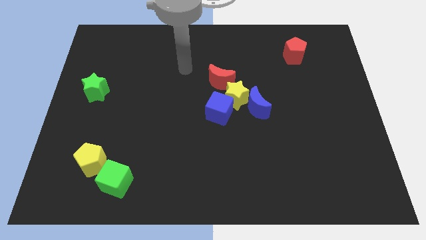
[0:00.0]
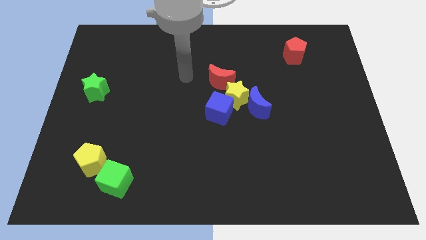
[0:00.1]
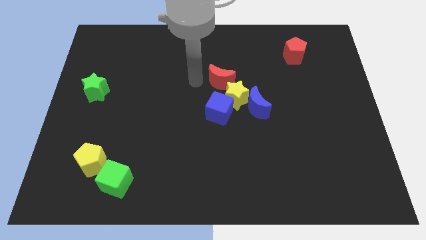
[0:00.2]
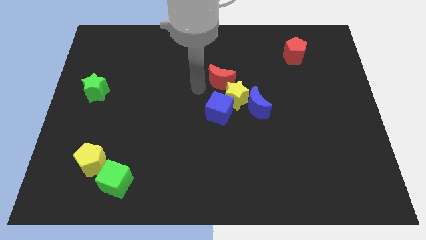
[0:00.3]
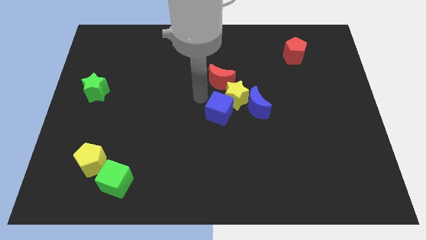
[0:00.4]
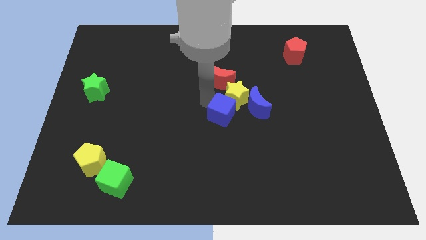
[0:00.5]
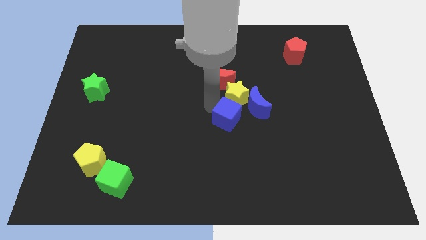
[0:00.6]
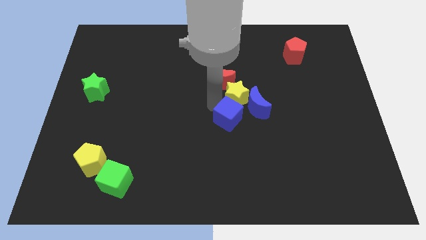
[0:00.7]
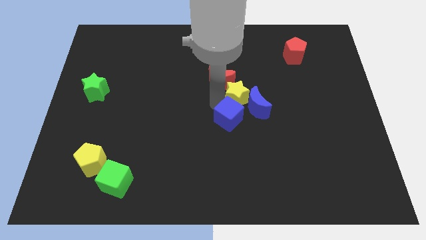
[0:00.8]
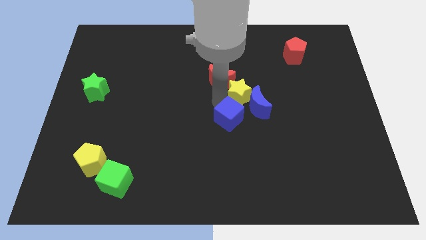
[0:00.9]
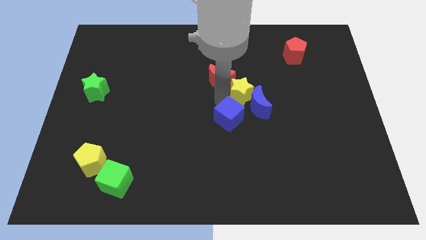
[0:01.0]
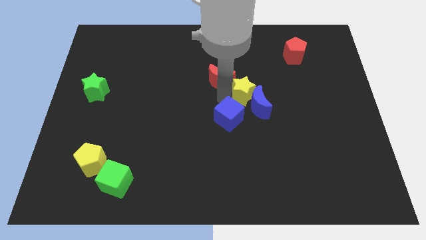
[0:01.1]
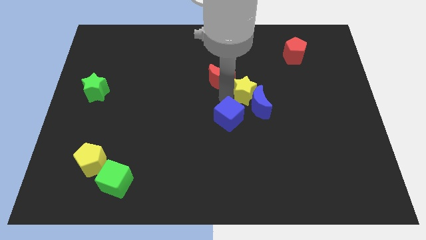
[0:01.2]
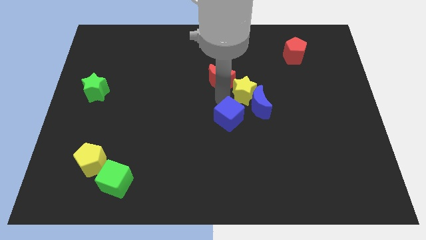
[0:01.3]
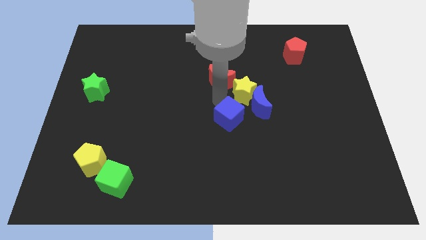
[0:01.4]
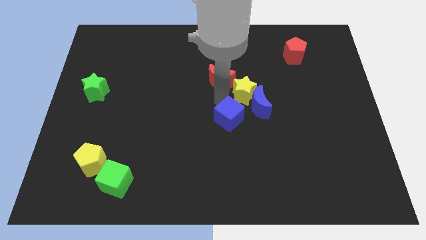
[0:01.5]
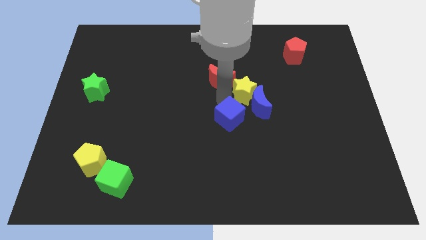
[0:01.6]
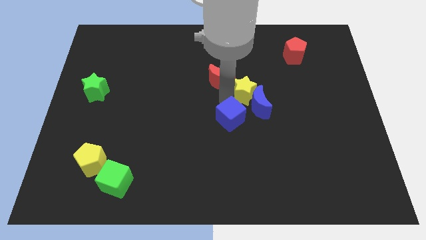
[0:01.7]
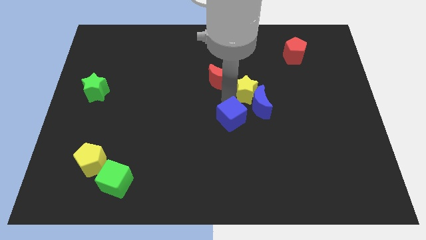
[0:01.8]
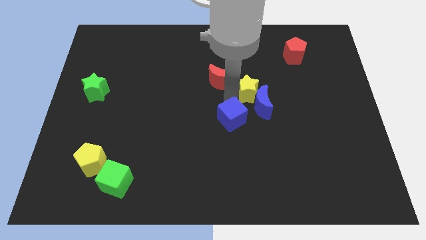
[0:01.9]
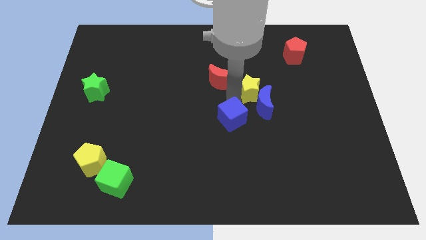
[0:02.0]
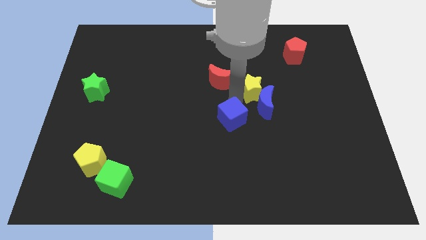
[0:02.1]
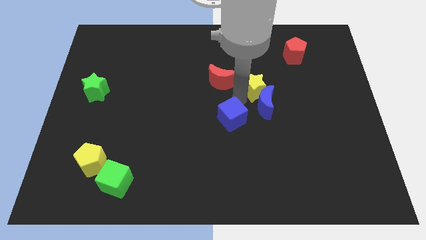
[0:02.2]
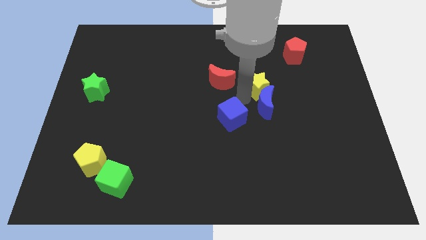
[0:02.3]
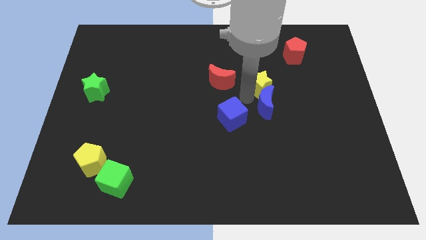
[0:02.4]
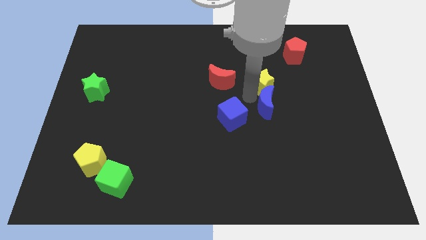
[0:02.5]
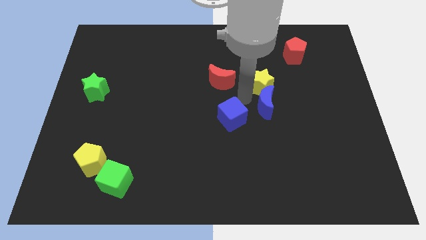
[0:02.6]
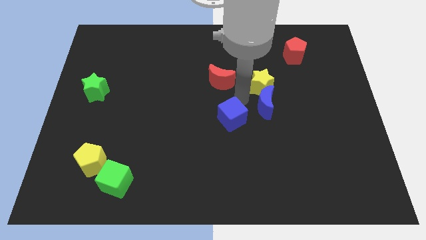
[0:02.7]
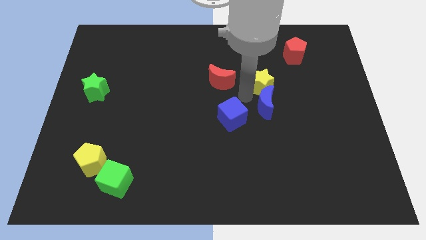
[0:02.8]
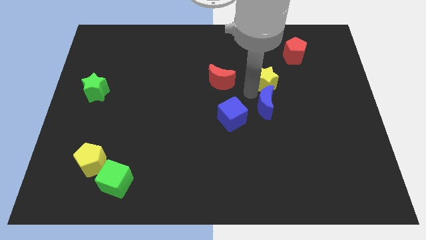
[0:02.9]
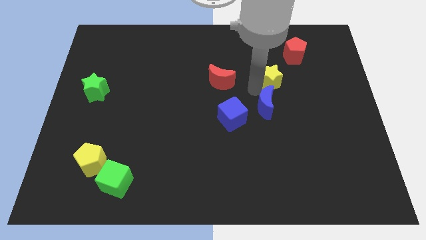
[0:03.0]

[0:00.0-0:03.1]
move the yellow star away from the group of blocks

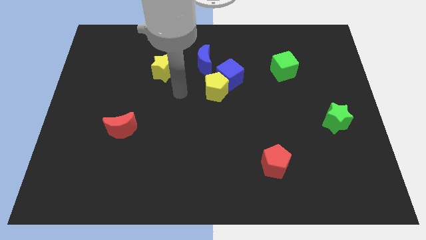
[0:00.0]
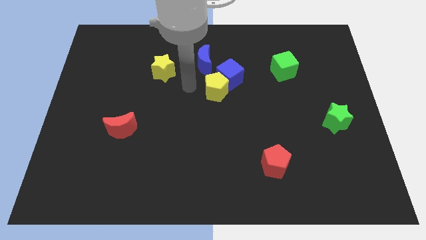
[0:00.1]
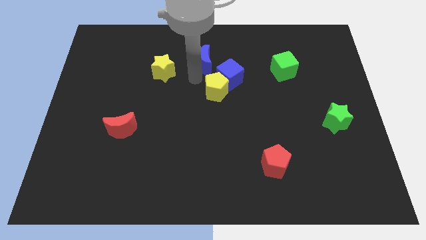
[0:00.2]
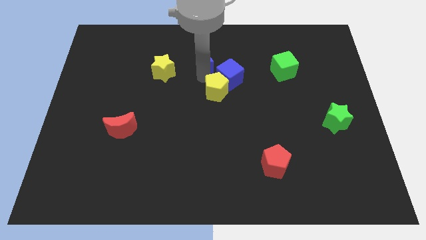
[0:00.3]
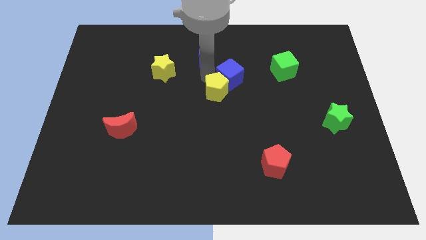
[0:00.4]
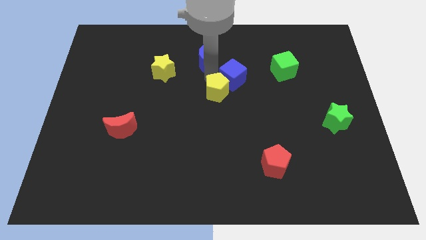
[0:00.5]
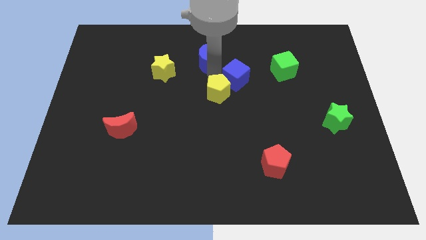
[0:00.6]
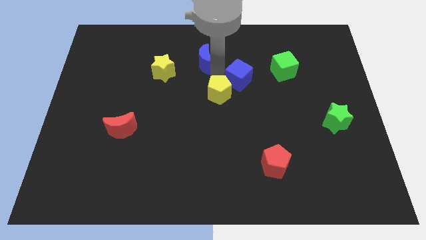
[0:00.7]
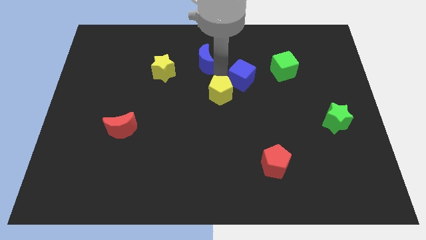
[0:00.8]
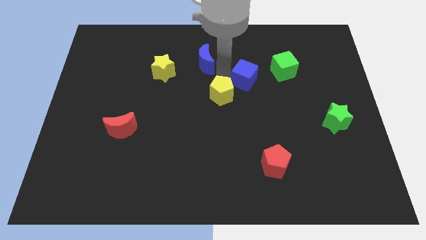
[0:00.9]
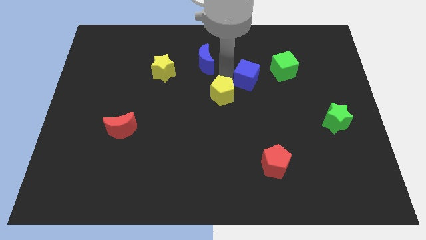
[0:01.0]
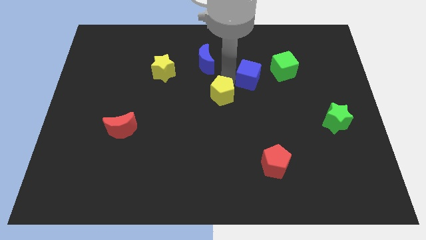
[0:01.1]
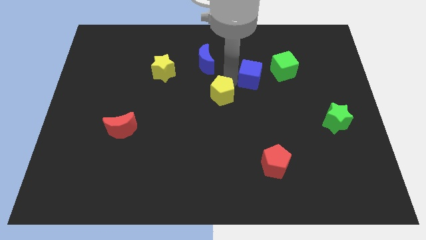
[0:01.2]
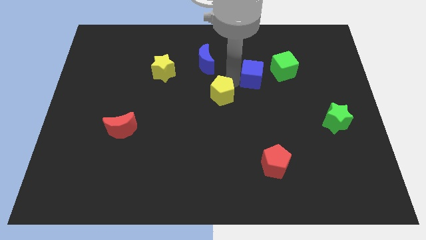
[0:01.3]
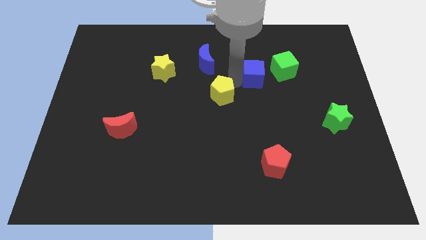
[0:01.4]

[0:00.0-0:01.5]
pull the blue cube apart from the yellow pentagon and blue moon

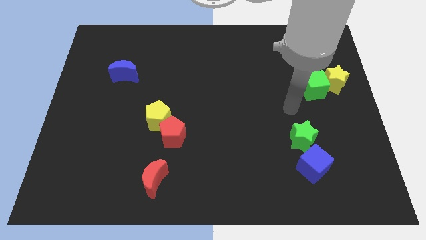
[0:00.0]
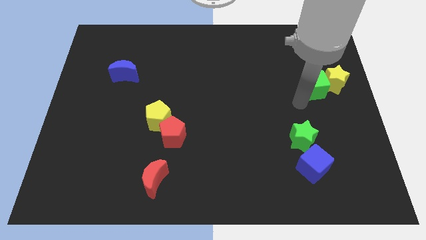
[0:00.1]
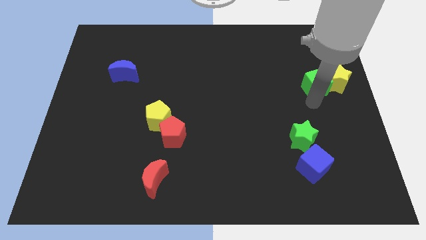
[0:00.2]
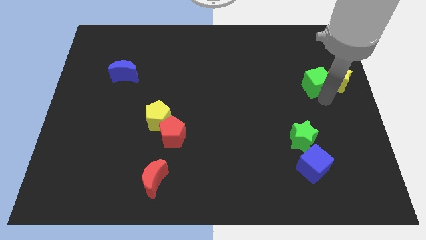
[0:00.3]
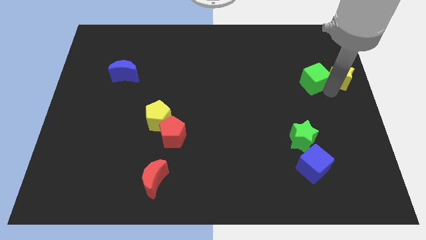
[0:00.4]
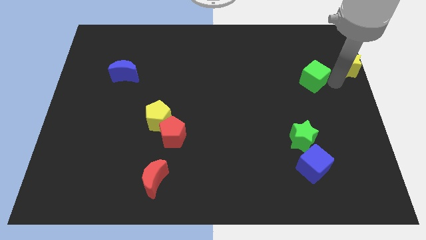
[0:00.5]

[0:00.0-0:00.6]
pull the green cube apart from the yellow star

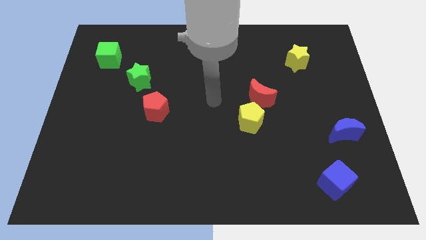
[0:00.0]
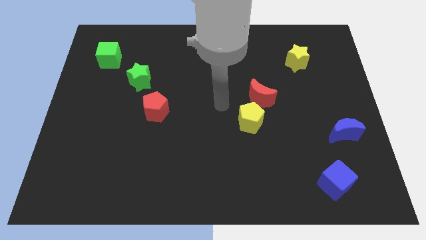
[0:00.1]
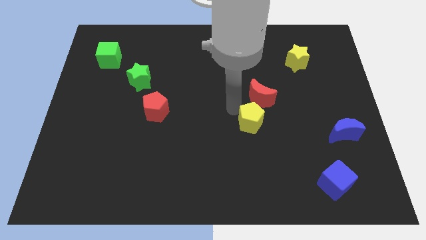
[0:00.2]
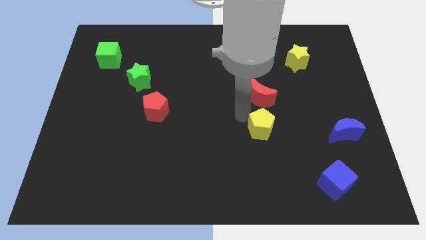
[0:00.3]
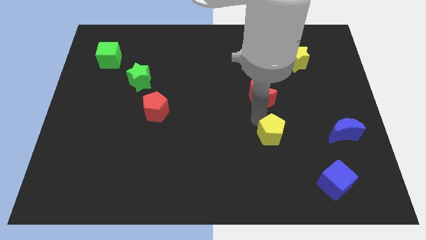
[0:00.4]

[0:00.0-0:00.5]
move the red moon away from the yellow pentagon

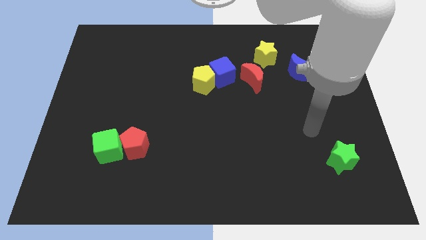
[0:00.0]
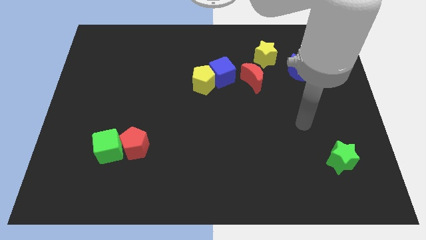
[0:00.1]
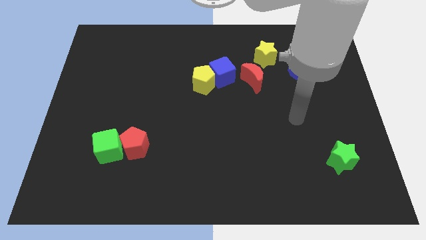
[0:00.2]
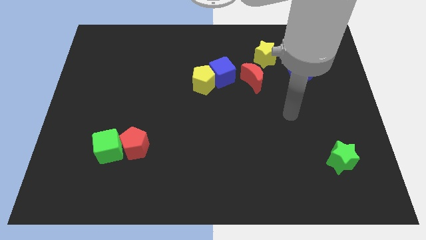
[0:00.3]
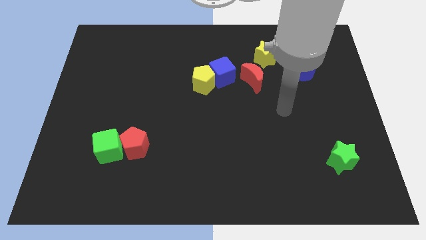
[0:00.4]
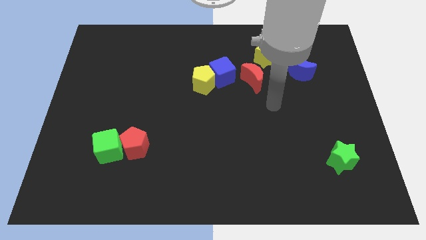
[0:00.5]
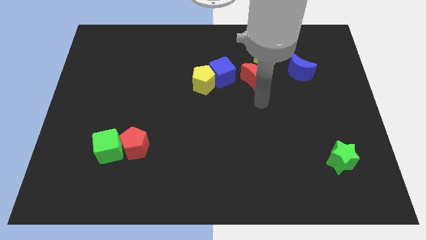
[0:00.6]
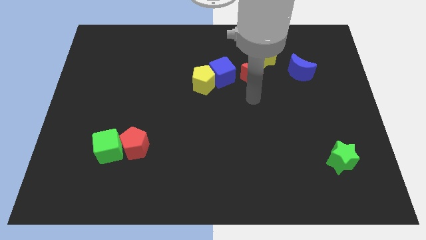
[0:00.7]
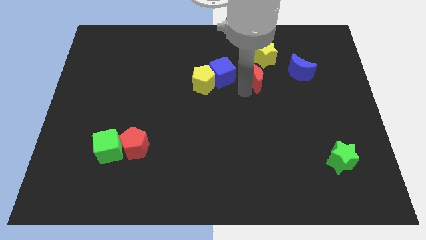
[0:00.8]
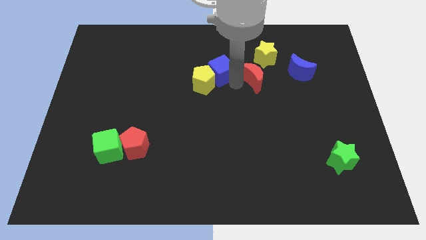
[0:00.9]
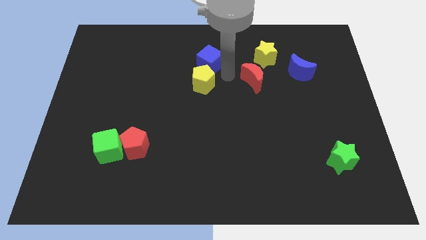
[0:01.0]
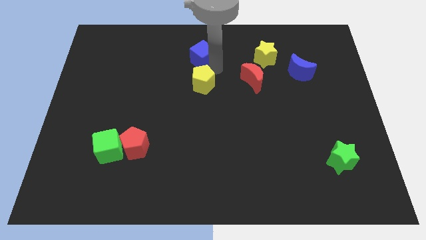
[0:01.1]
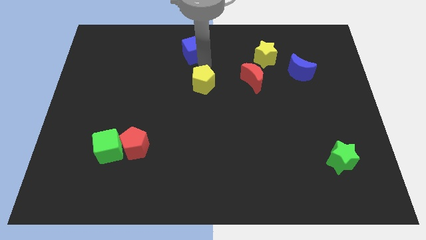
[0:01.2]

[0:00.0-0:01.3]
separate the yellow pentagon from the blue cube

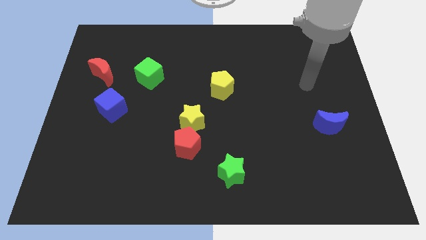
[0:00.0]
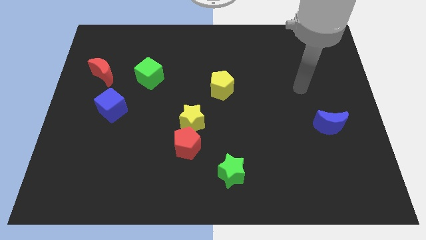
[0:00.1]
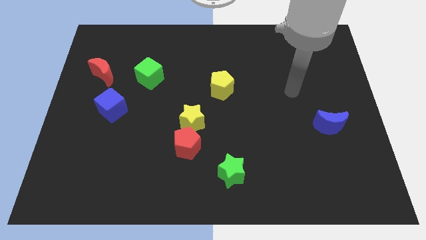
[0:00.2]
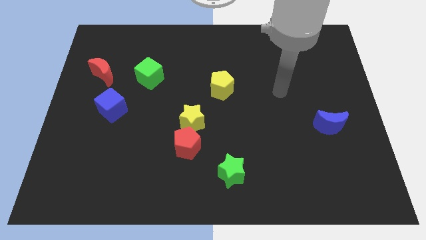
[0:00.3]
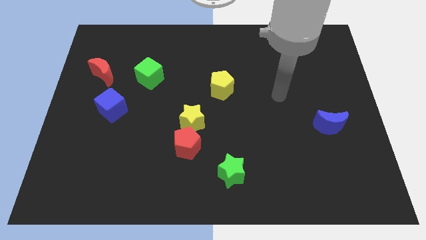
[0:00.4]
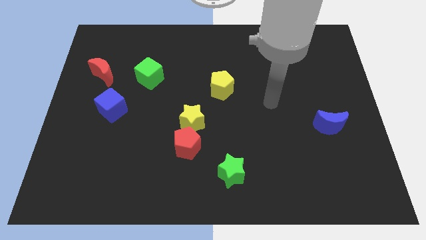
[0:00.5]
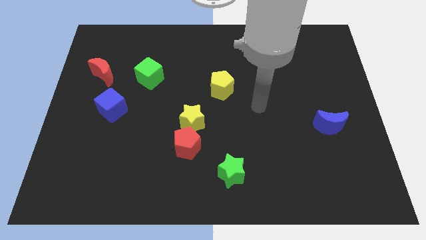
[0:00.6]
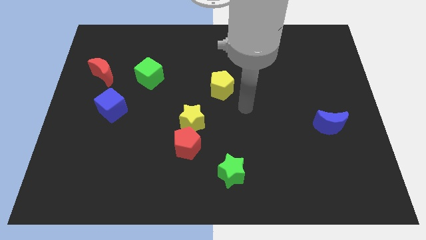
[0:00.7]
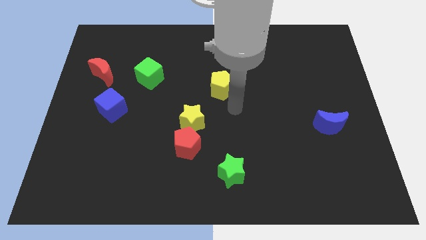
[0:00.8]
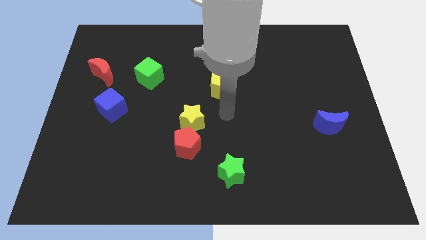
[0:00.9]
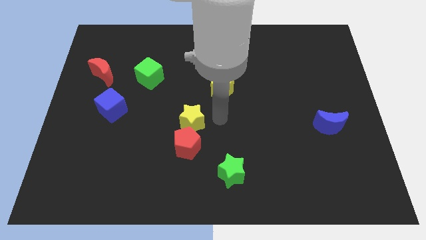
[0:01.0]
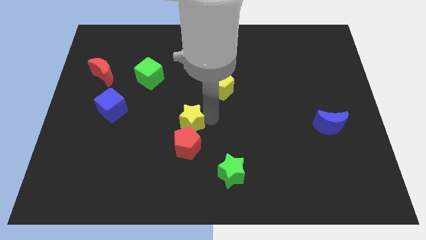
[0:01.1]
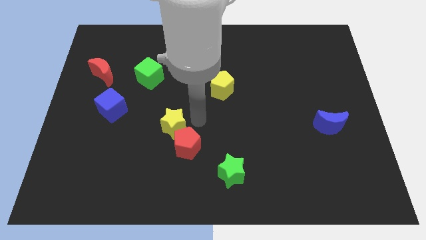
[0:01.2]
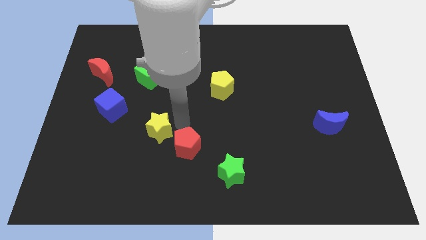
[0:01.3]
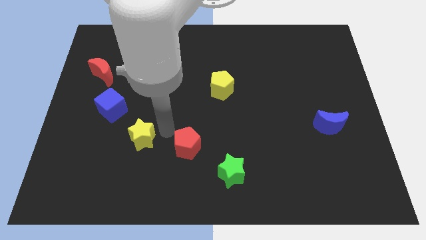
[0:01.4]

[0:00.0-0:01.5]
move the red pentagon away from the yellow star

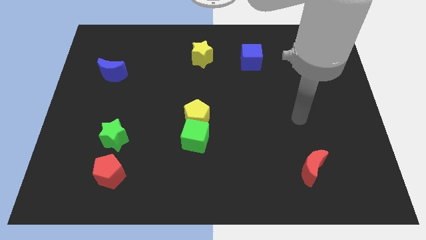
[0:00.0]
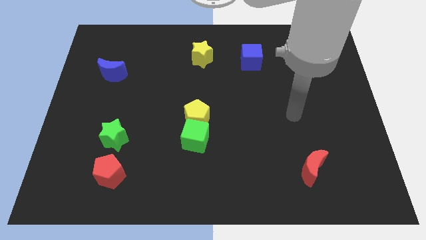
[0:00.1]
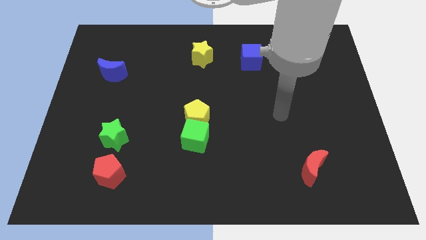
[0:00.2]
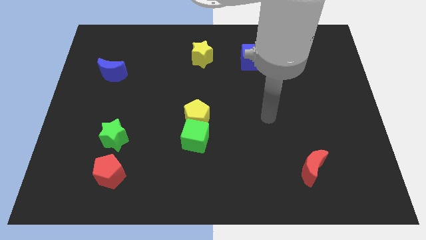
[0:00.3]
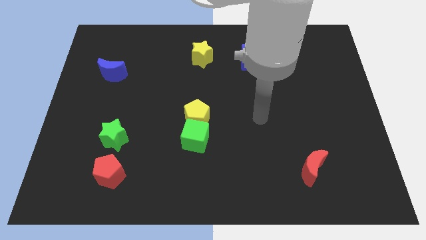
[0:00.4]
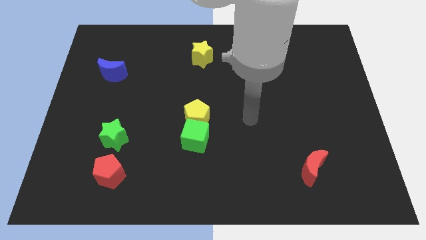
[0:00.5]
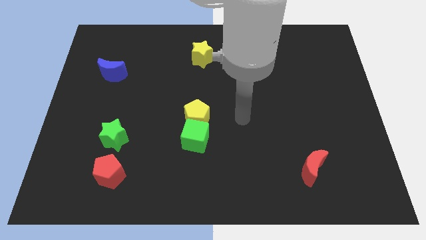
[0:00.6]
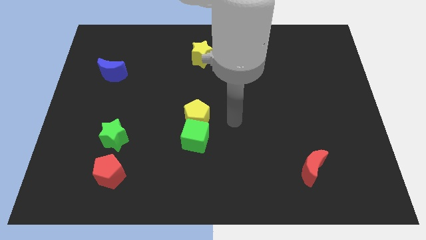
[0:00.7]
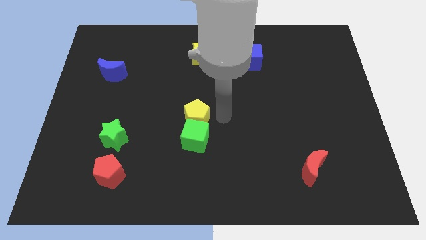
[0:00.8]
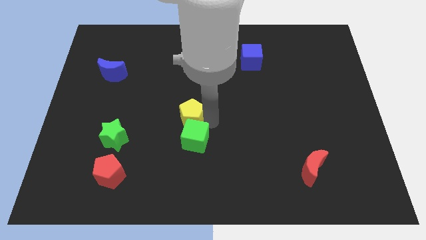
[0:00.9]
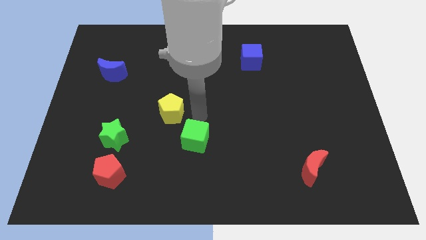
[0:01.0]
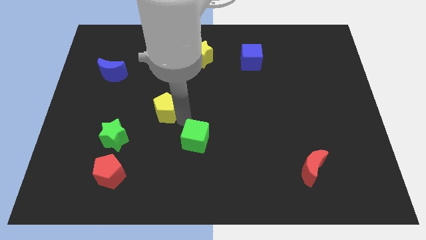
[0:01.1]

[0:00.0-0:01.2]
move the green cube away from the yellow pentagon
